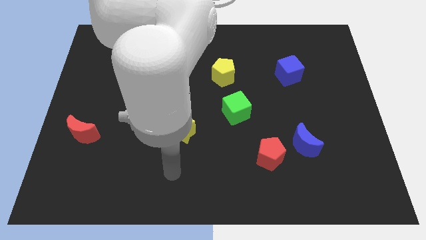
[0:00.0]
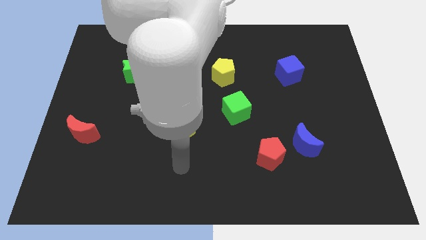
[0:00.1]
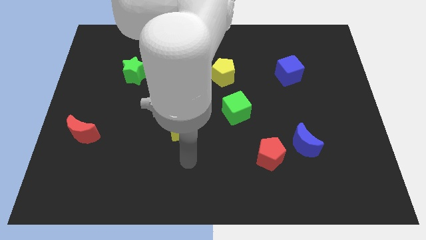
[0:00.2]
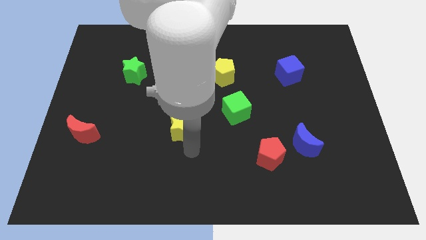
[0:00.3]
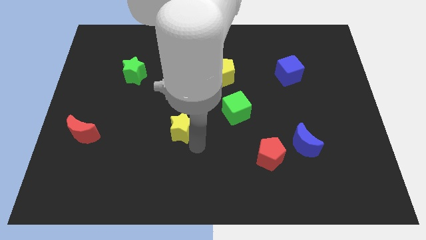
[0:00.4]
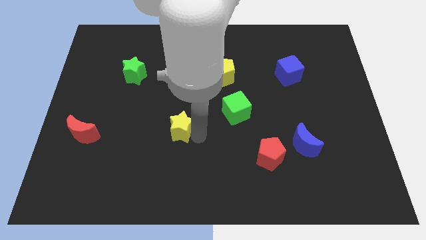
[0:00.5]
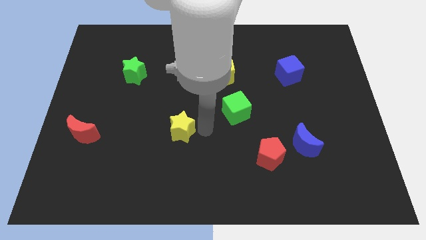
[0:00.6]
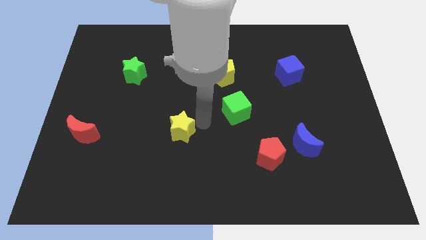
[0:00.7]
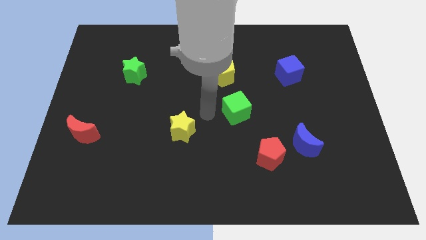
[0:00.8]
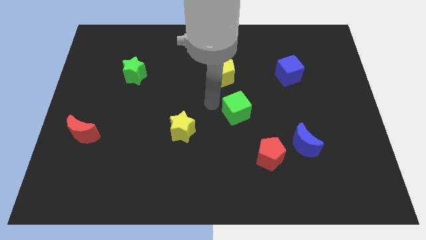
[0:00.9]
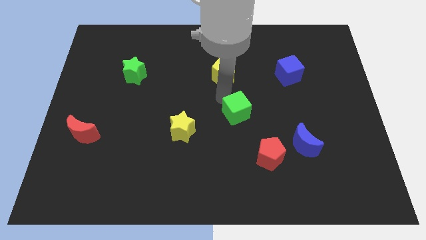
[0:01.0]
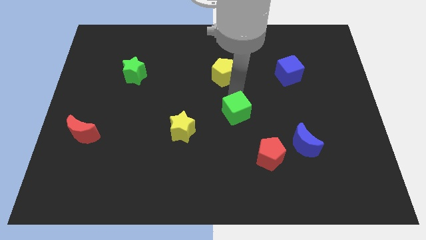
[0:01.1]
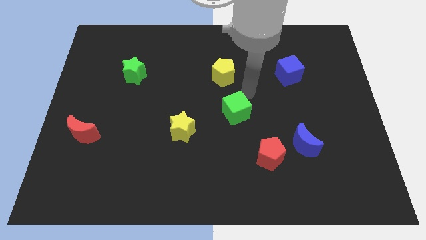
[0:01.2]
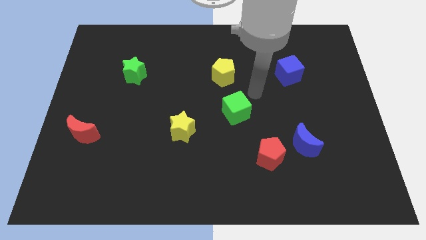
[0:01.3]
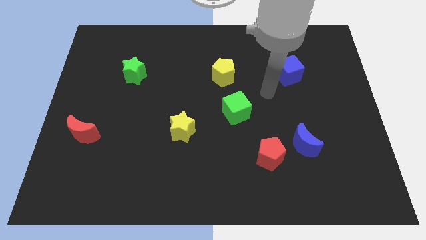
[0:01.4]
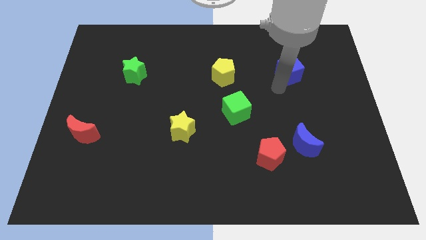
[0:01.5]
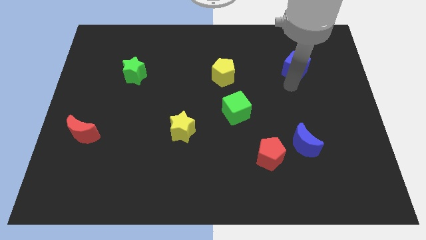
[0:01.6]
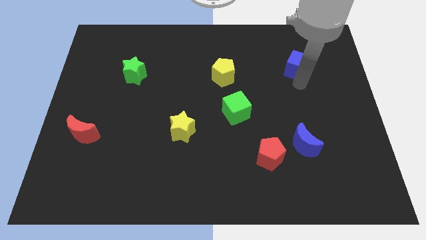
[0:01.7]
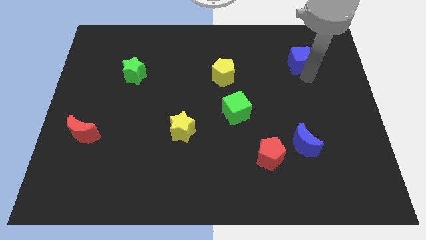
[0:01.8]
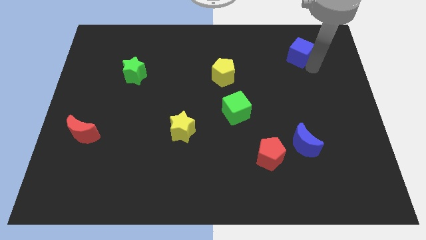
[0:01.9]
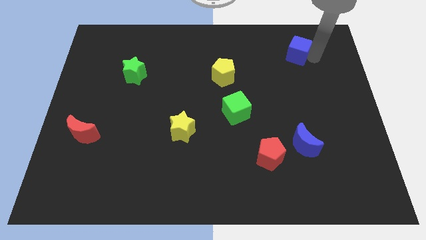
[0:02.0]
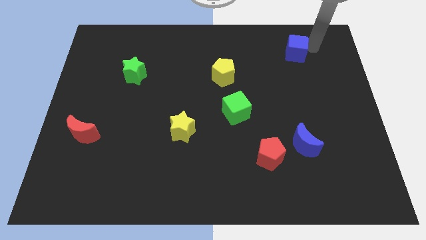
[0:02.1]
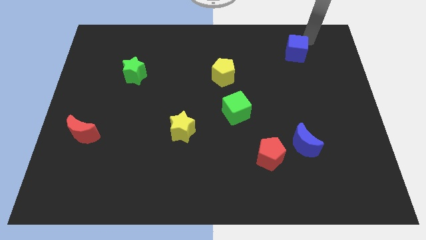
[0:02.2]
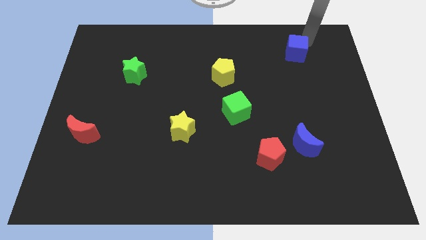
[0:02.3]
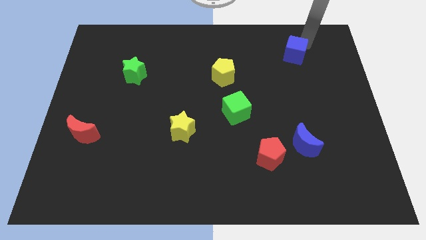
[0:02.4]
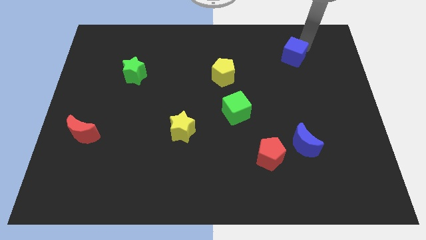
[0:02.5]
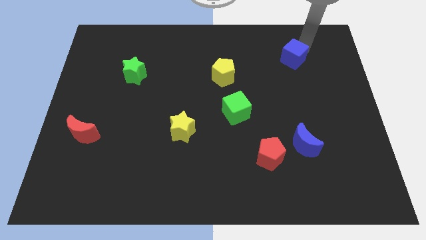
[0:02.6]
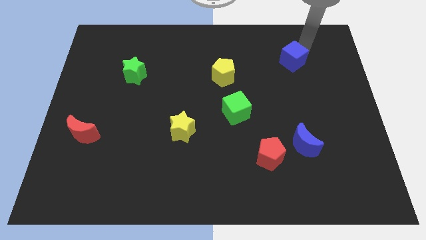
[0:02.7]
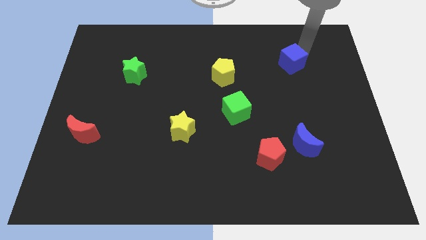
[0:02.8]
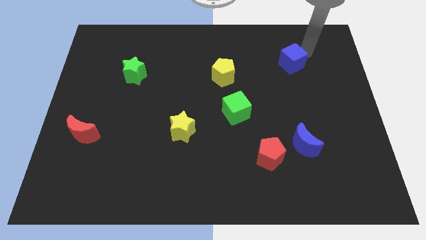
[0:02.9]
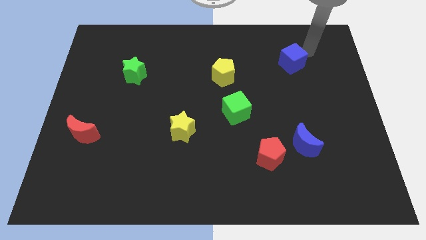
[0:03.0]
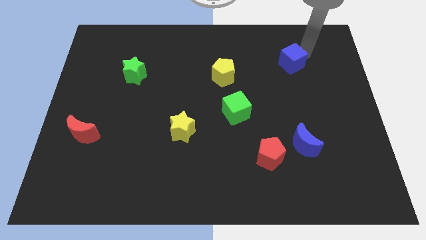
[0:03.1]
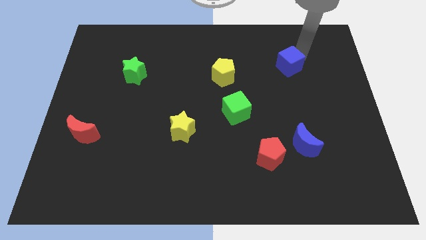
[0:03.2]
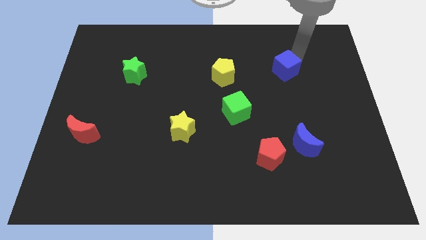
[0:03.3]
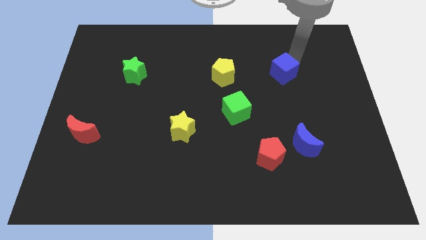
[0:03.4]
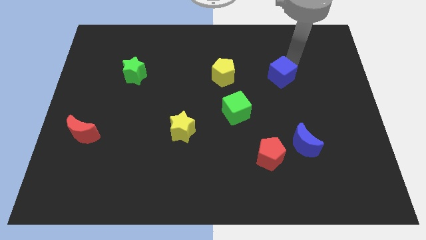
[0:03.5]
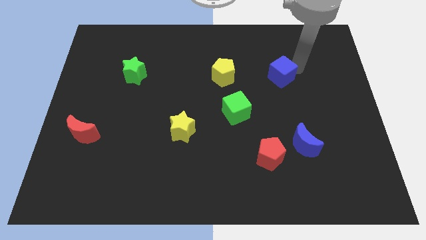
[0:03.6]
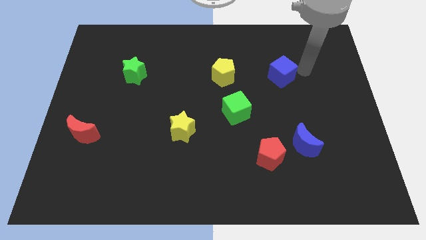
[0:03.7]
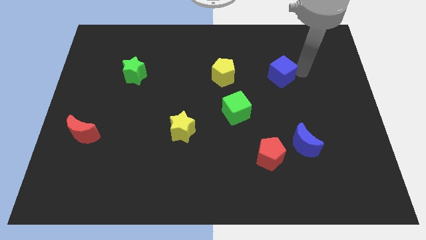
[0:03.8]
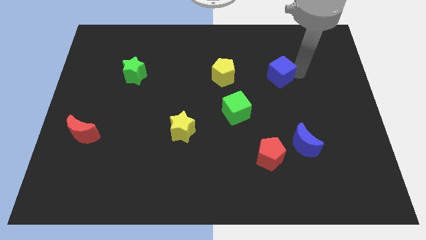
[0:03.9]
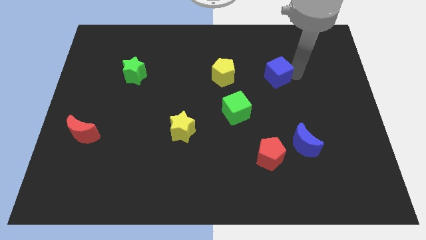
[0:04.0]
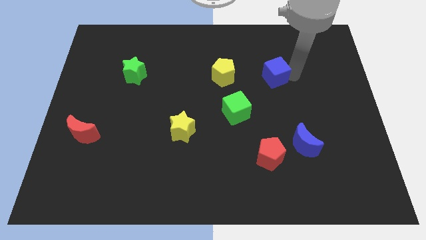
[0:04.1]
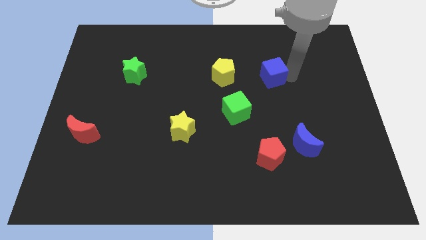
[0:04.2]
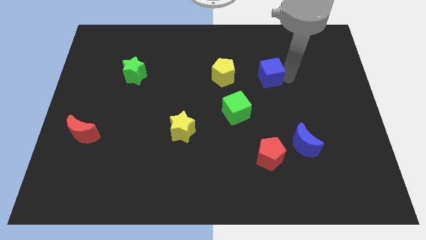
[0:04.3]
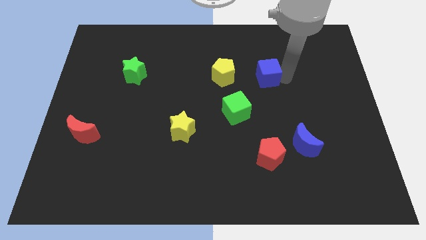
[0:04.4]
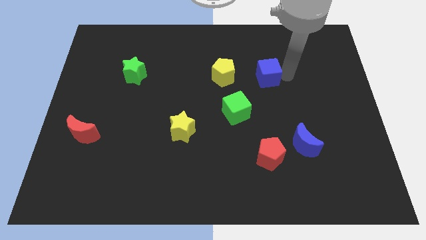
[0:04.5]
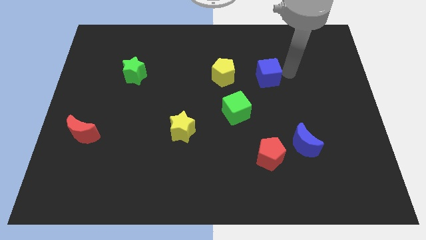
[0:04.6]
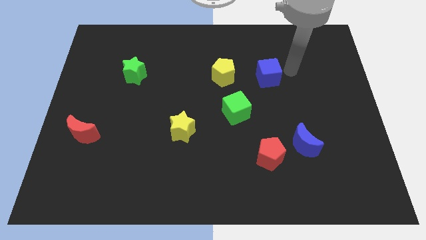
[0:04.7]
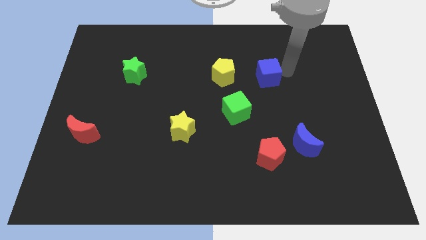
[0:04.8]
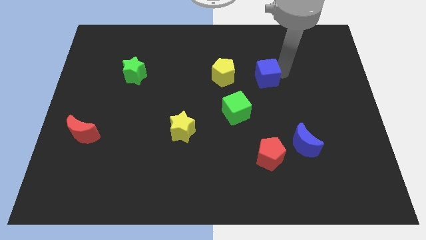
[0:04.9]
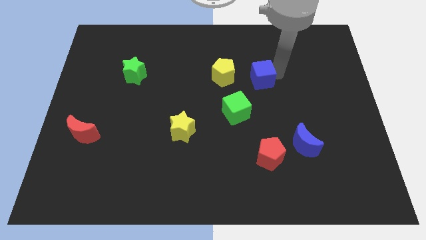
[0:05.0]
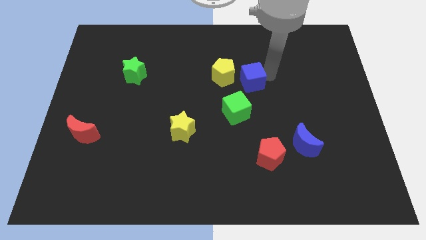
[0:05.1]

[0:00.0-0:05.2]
put the blue cube to the middle of the board

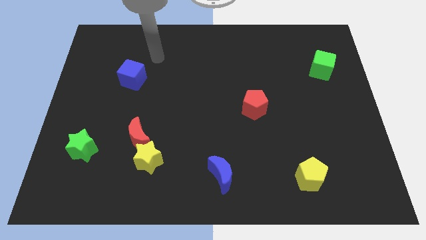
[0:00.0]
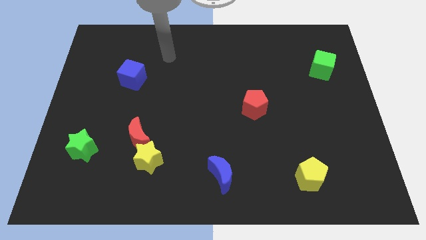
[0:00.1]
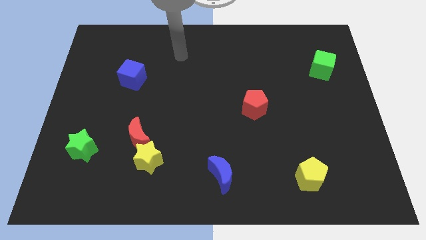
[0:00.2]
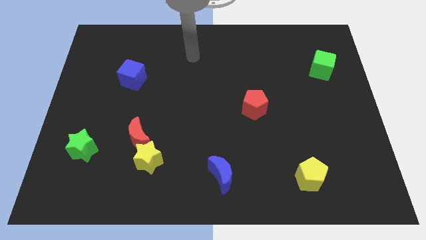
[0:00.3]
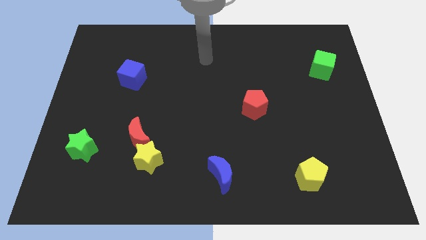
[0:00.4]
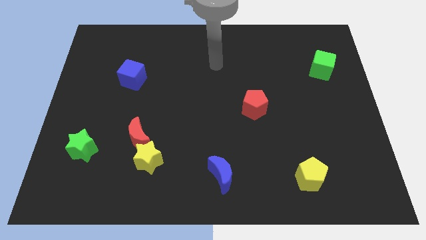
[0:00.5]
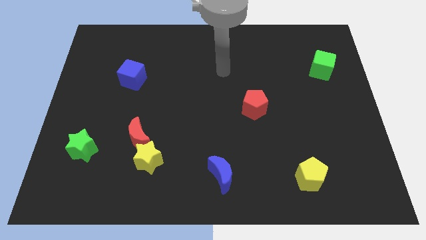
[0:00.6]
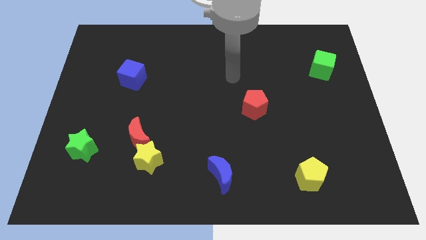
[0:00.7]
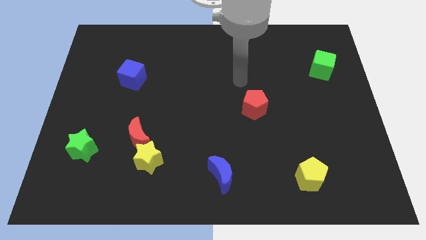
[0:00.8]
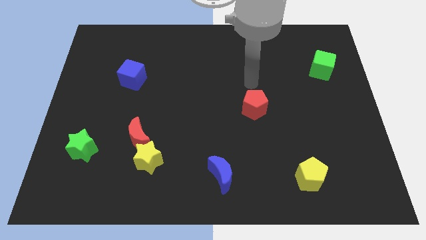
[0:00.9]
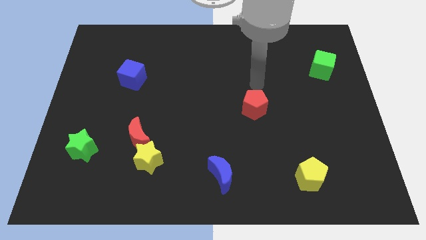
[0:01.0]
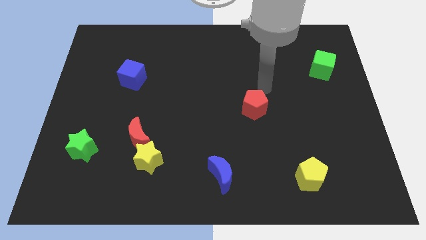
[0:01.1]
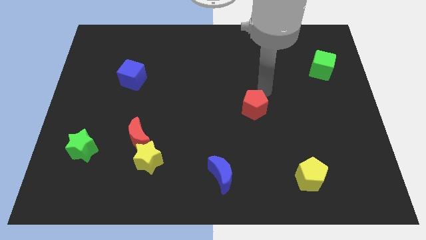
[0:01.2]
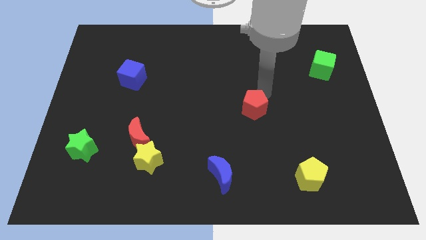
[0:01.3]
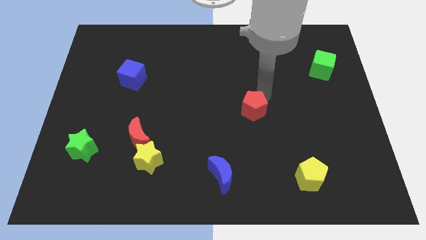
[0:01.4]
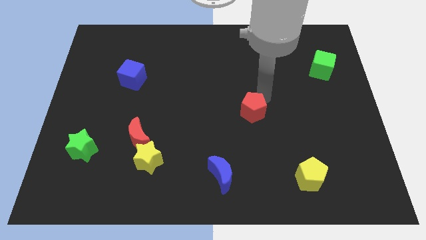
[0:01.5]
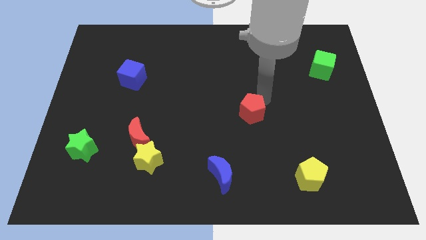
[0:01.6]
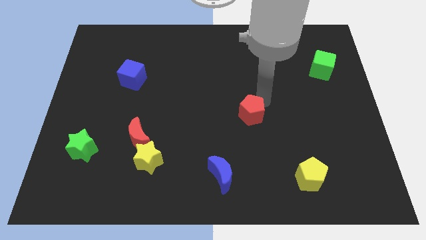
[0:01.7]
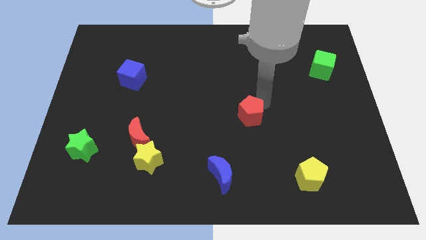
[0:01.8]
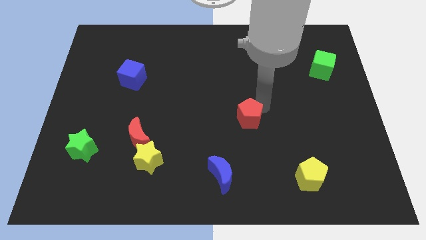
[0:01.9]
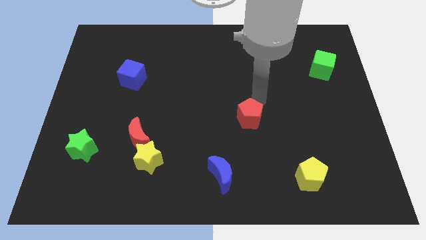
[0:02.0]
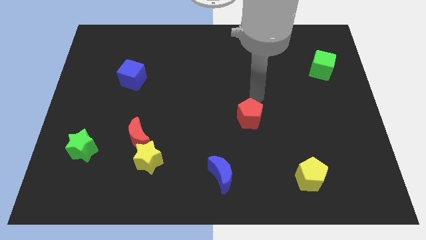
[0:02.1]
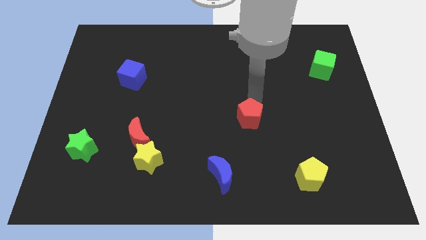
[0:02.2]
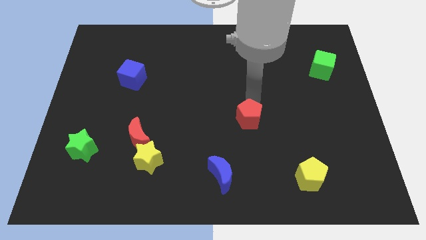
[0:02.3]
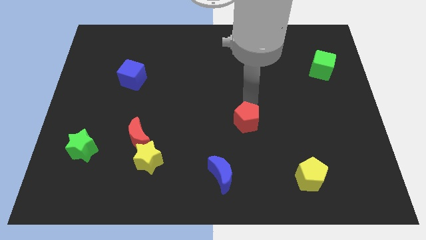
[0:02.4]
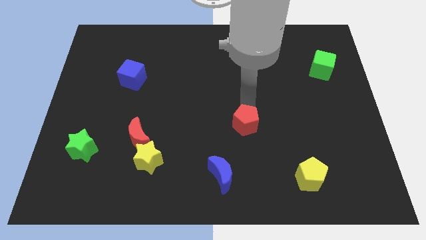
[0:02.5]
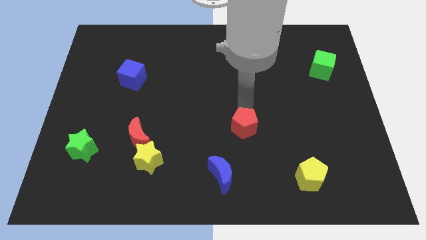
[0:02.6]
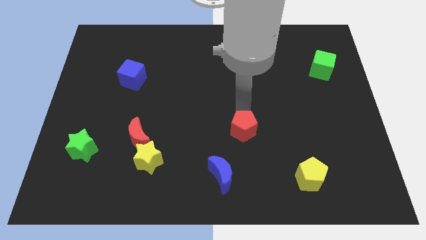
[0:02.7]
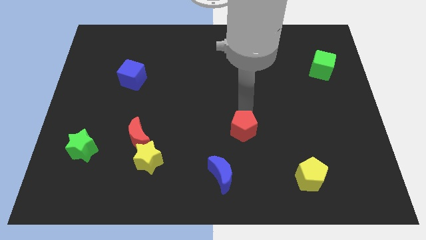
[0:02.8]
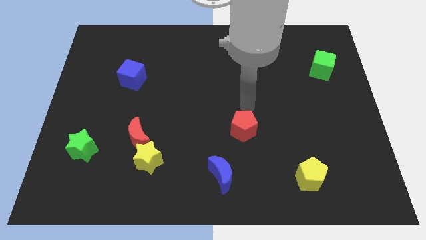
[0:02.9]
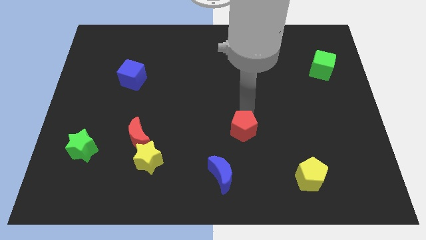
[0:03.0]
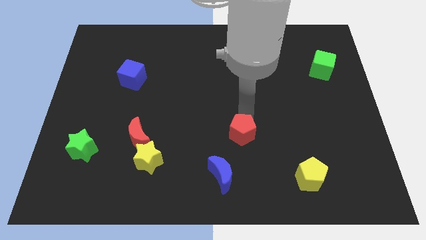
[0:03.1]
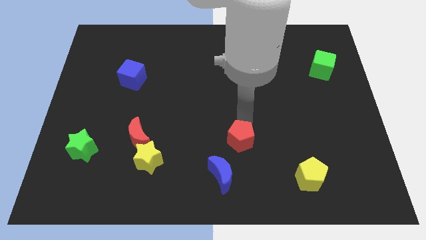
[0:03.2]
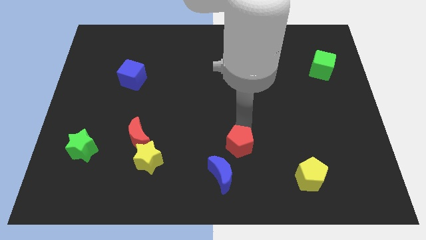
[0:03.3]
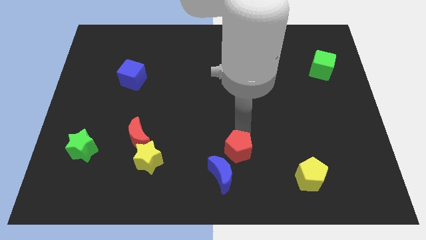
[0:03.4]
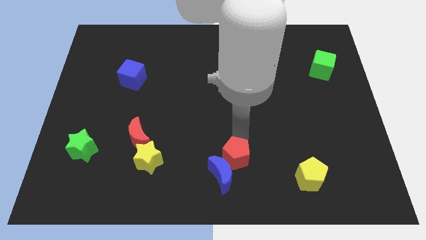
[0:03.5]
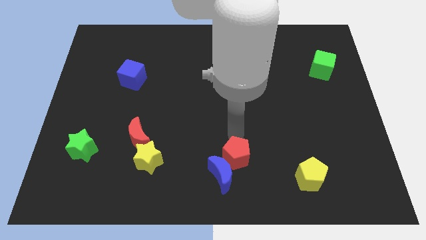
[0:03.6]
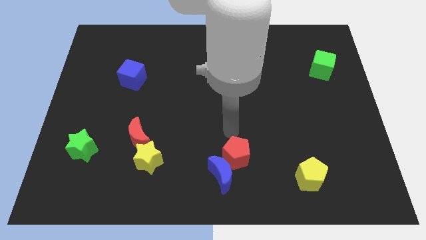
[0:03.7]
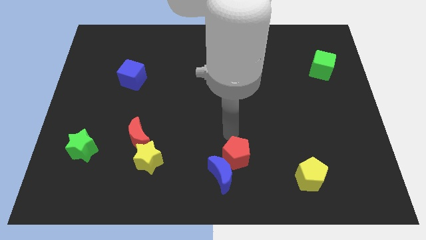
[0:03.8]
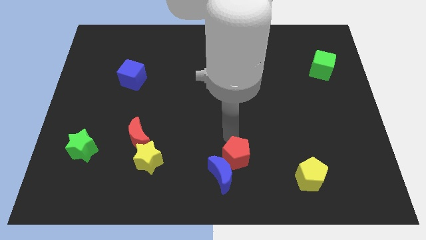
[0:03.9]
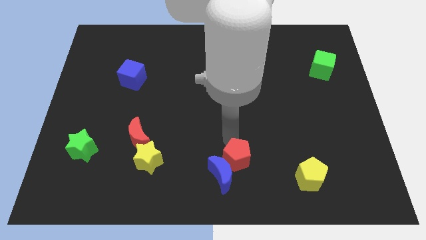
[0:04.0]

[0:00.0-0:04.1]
move the red pentagon to the bottom side
